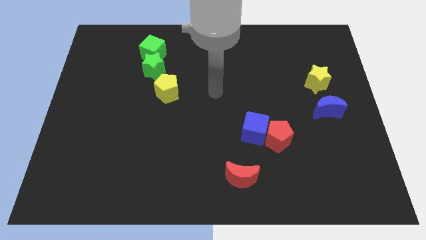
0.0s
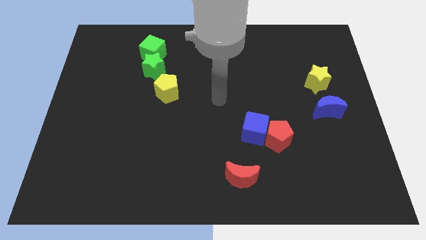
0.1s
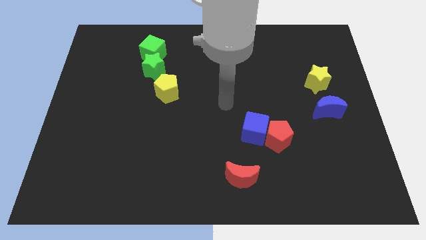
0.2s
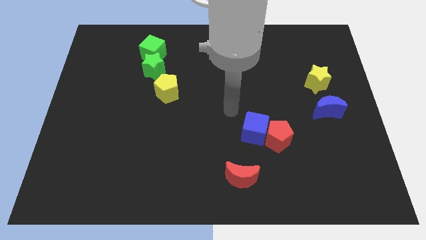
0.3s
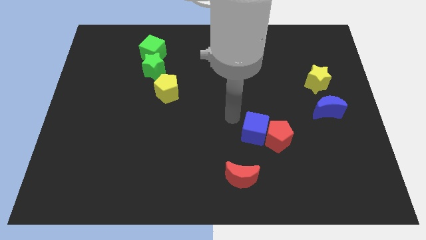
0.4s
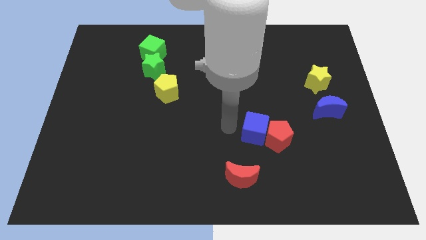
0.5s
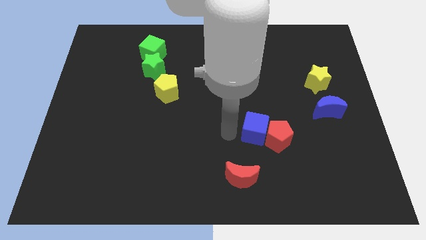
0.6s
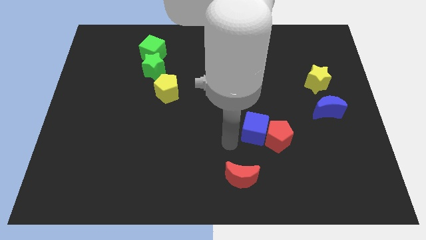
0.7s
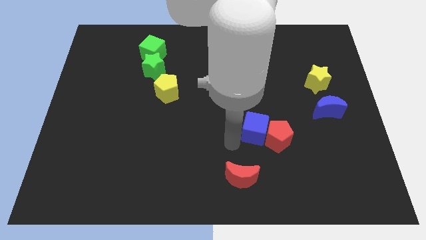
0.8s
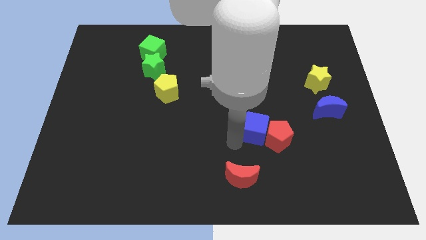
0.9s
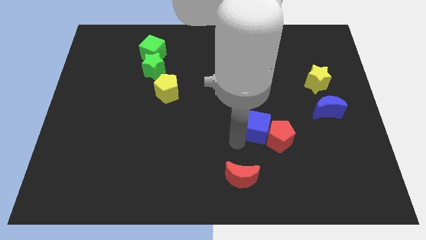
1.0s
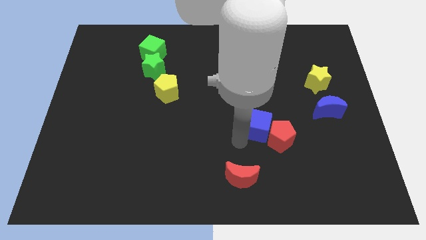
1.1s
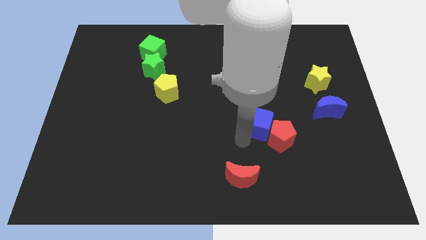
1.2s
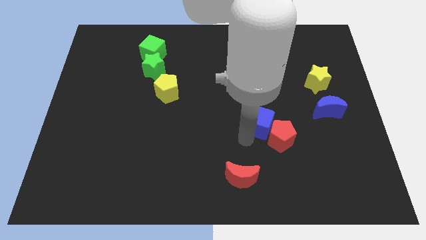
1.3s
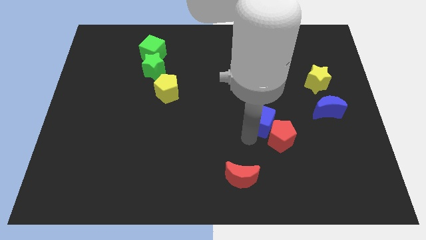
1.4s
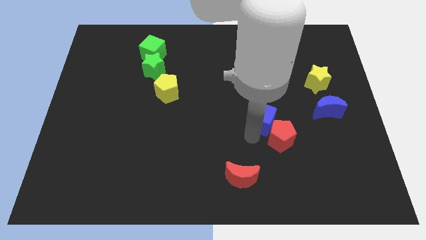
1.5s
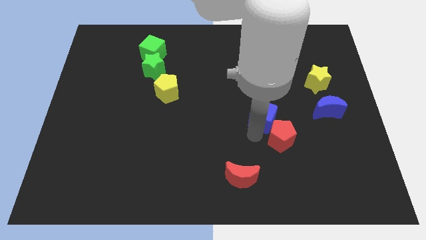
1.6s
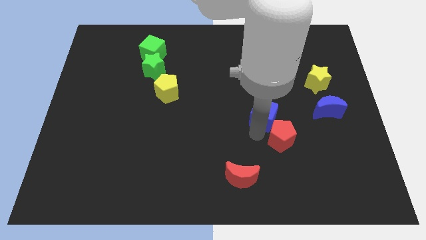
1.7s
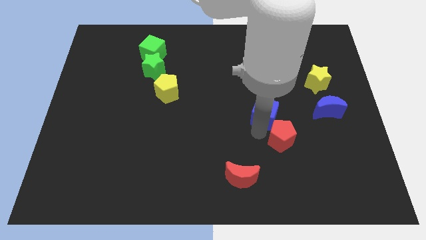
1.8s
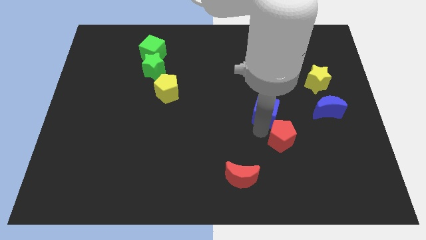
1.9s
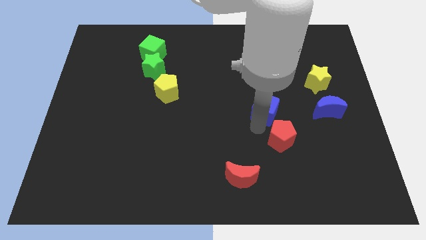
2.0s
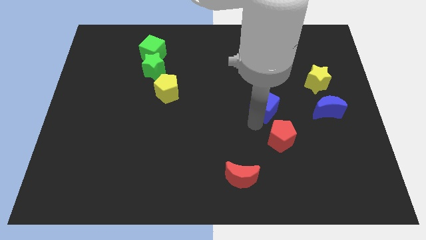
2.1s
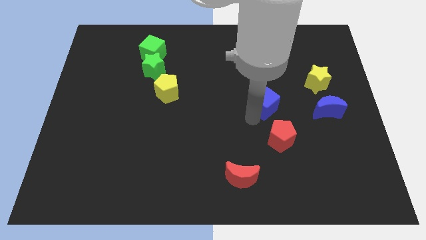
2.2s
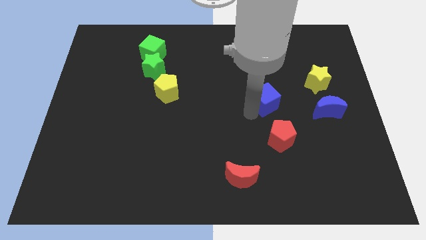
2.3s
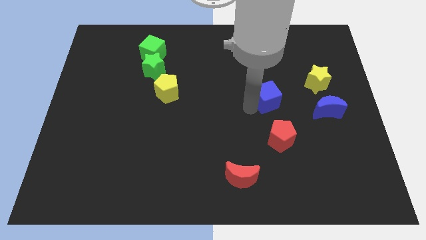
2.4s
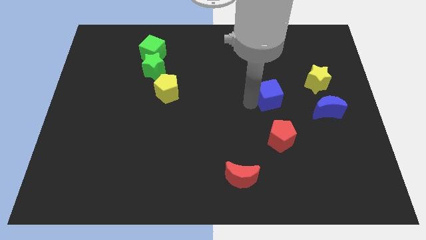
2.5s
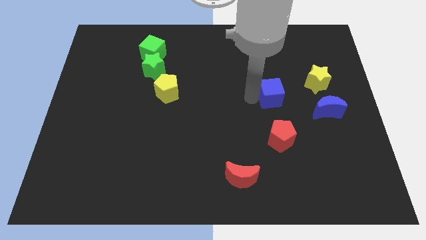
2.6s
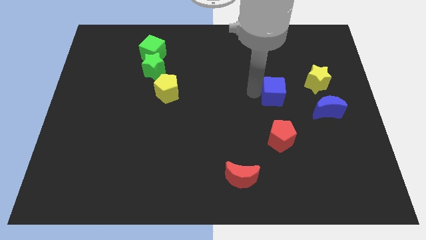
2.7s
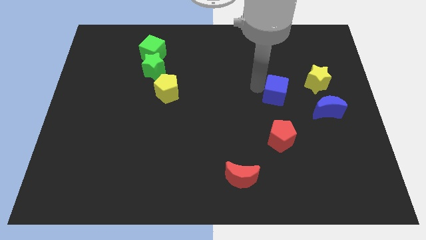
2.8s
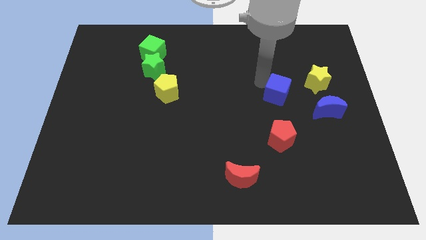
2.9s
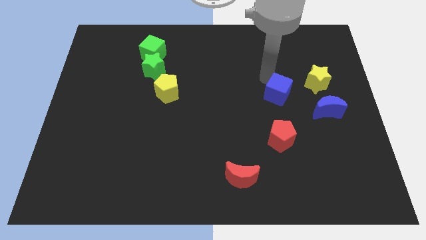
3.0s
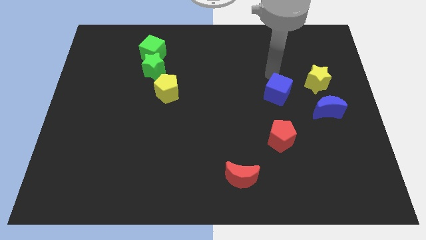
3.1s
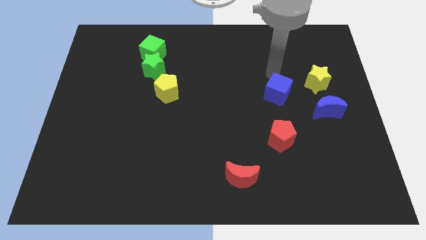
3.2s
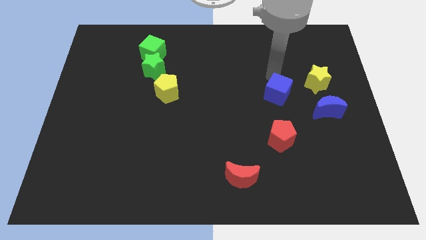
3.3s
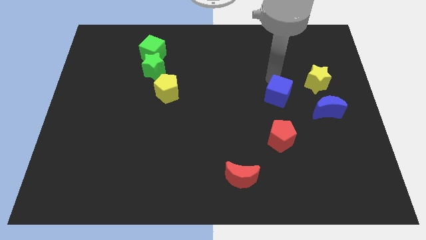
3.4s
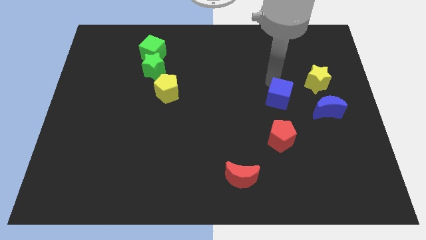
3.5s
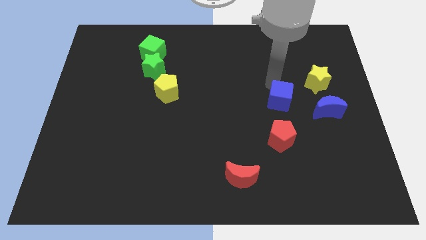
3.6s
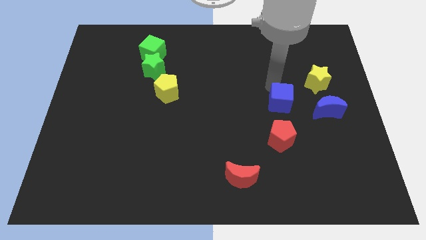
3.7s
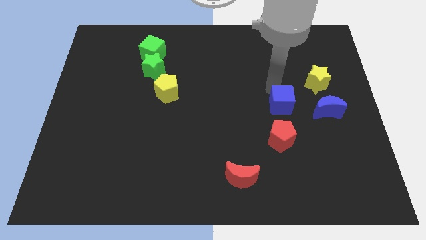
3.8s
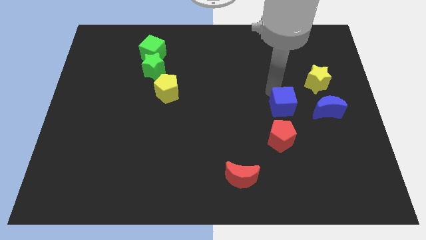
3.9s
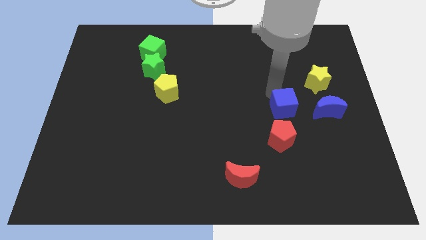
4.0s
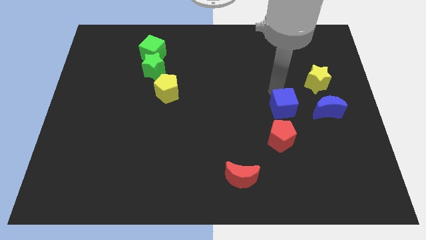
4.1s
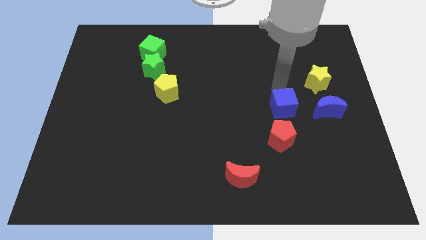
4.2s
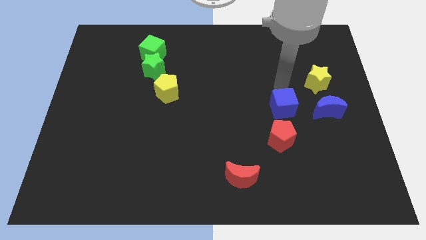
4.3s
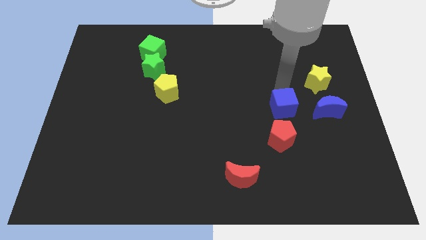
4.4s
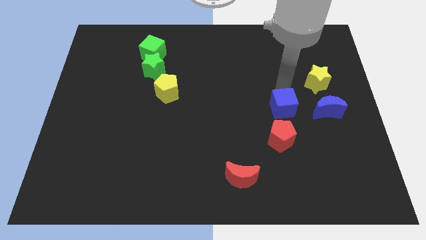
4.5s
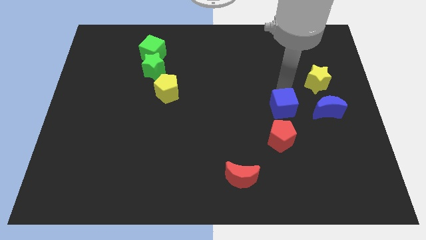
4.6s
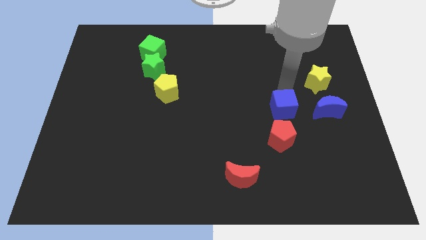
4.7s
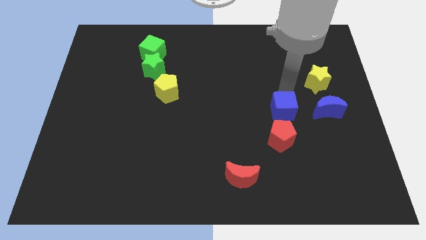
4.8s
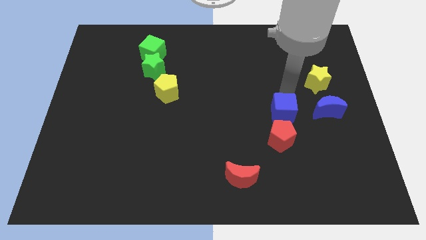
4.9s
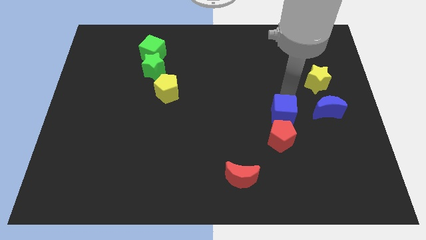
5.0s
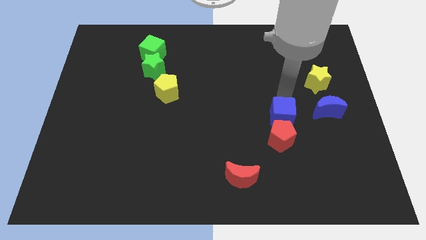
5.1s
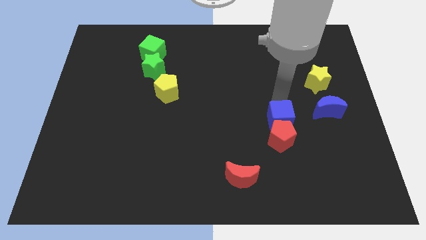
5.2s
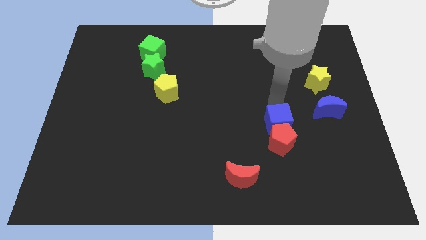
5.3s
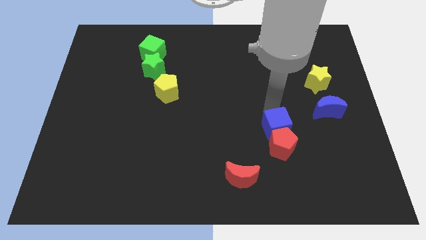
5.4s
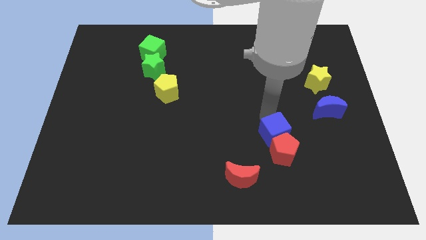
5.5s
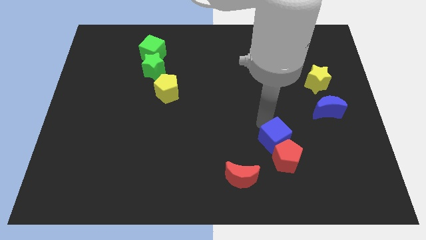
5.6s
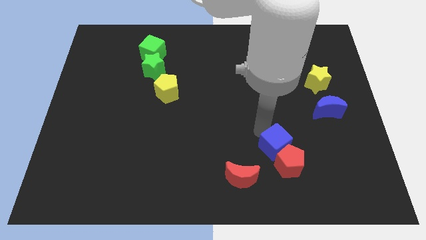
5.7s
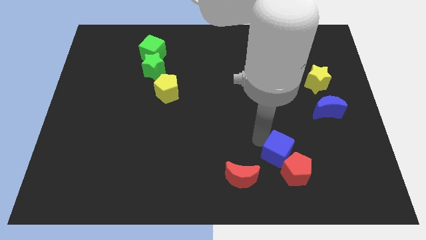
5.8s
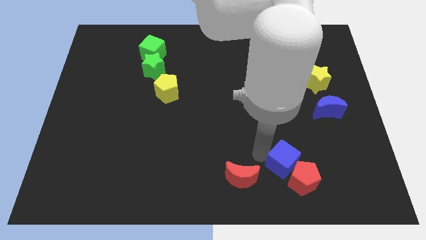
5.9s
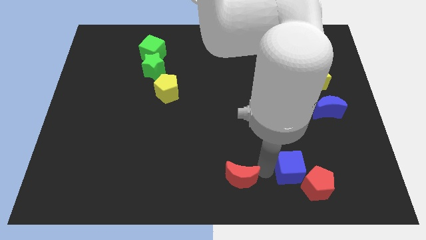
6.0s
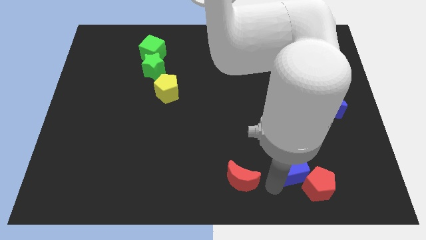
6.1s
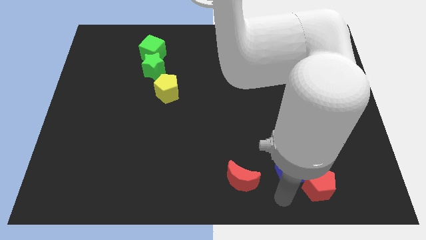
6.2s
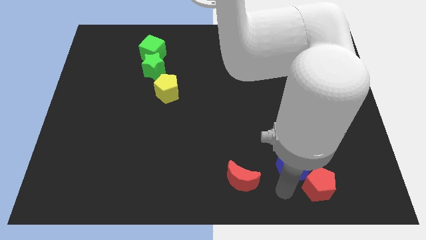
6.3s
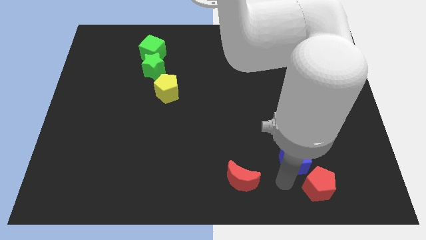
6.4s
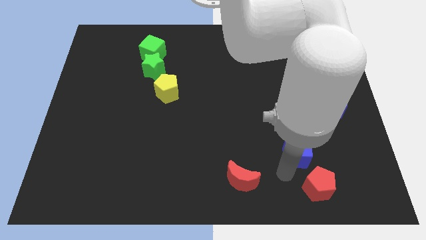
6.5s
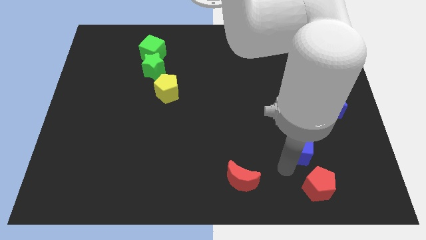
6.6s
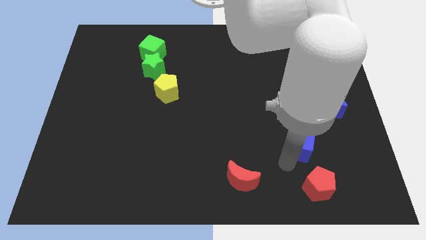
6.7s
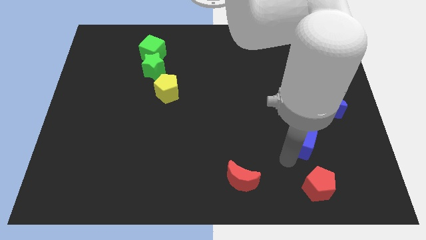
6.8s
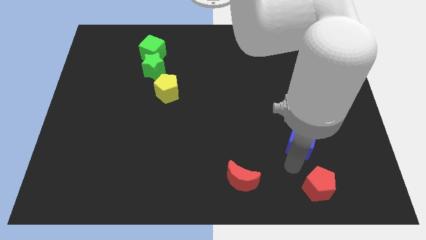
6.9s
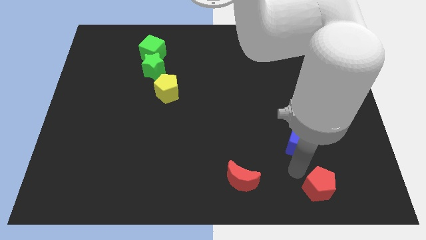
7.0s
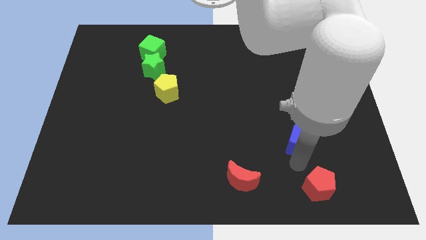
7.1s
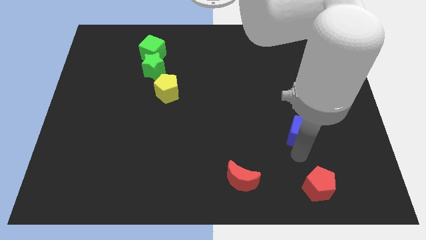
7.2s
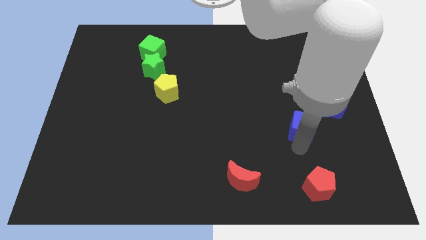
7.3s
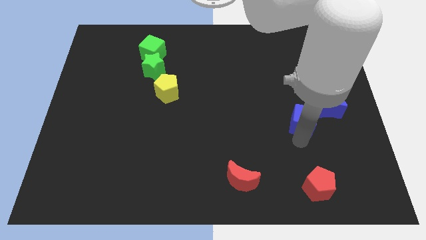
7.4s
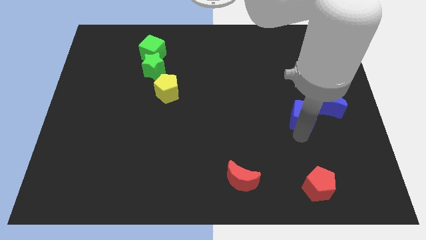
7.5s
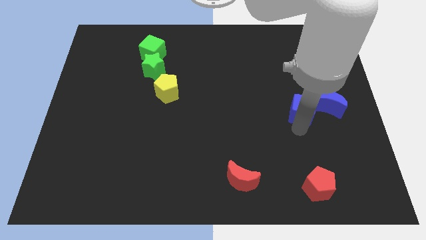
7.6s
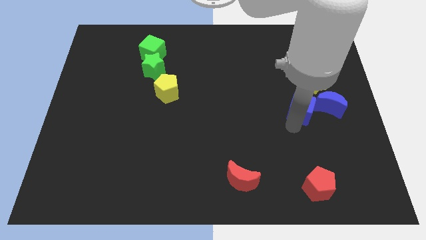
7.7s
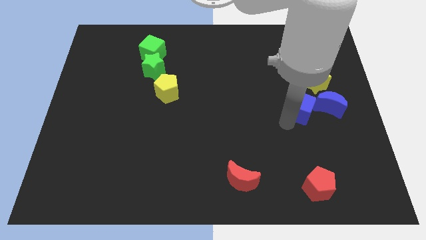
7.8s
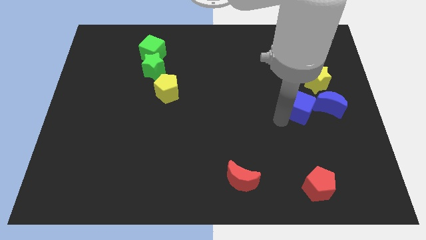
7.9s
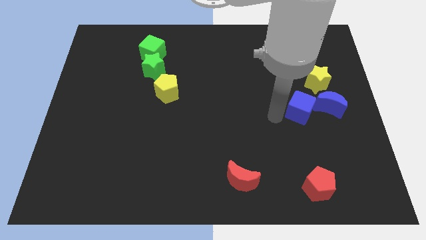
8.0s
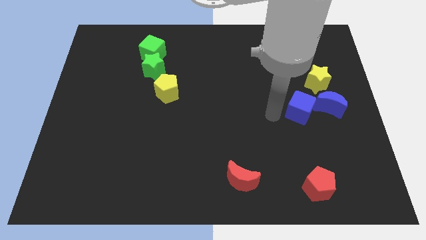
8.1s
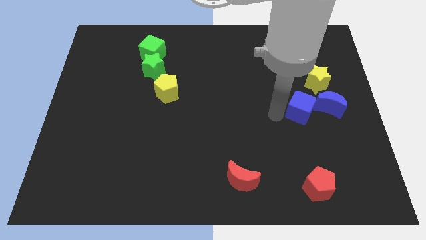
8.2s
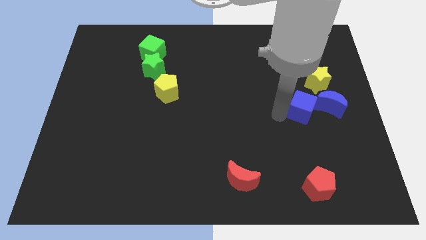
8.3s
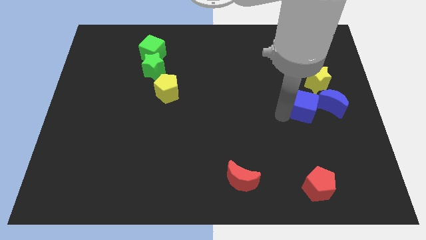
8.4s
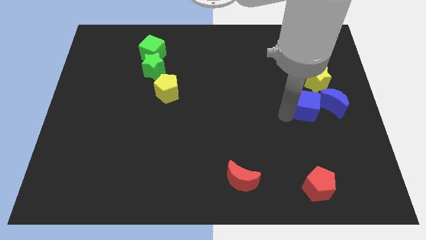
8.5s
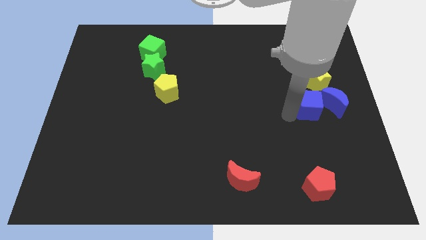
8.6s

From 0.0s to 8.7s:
move the blue cube to the blue moon
